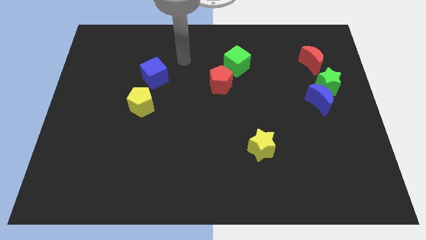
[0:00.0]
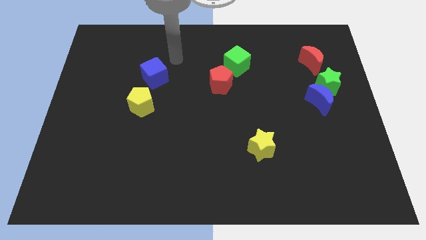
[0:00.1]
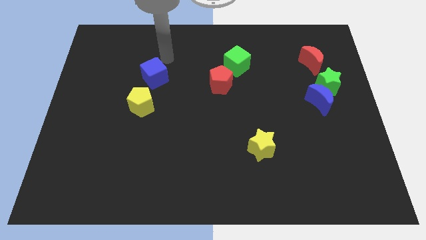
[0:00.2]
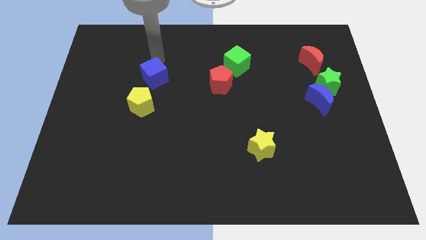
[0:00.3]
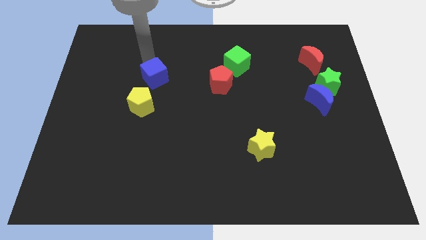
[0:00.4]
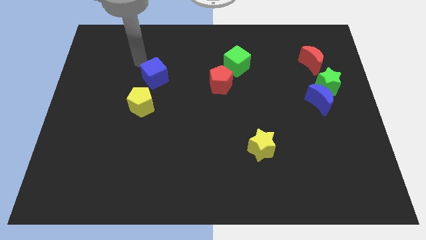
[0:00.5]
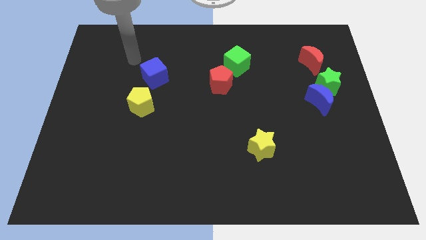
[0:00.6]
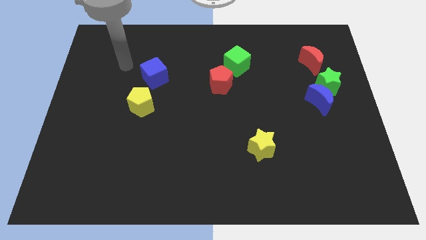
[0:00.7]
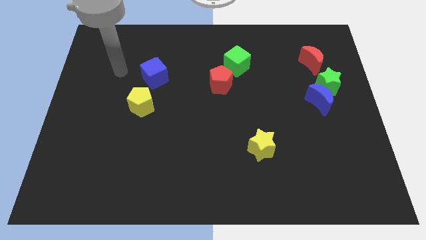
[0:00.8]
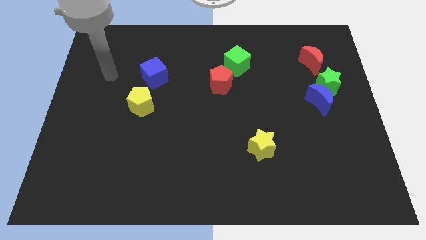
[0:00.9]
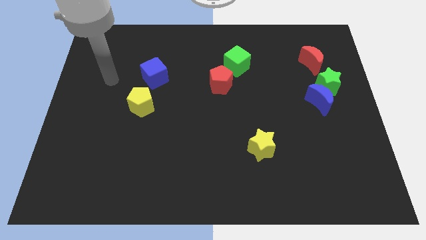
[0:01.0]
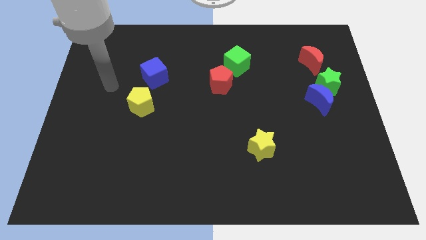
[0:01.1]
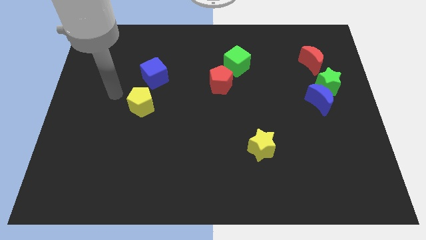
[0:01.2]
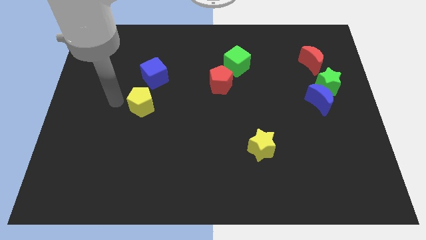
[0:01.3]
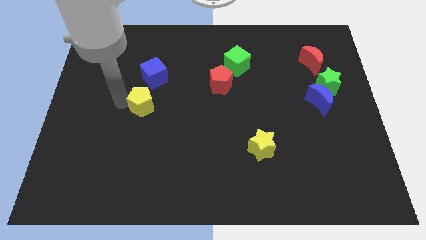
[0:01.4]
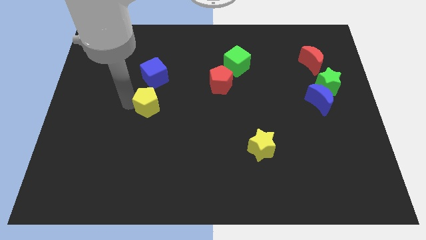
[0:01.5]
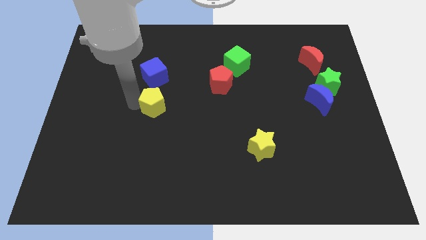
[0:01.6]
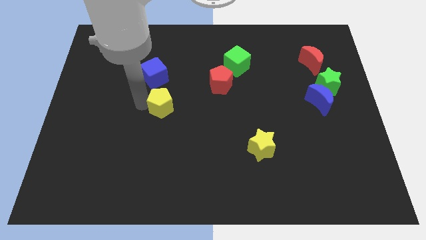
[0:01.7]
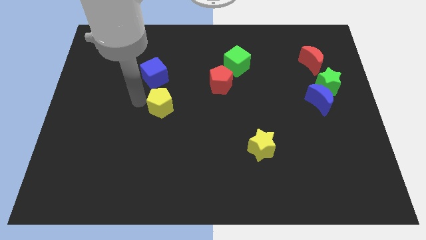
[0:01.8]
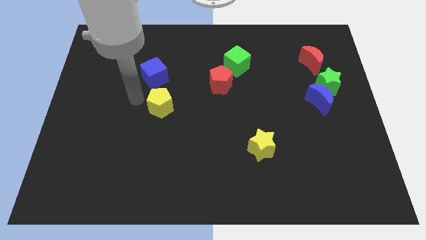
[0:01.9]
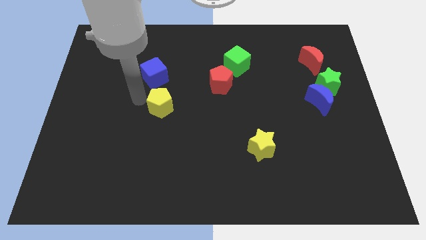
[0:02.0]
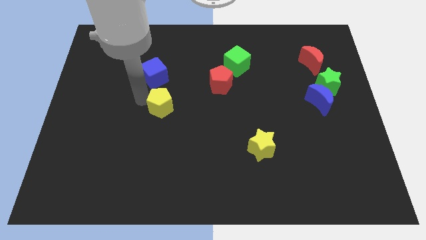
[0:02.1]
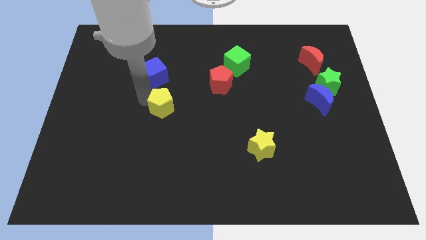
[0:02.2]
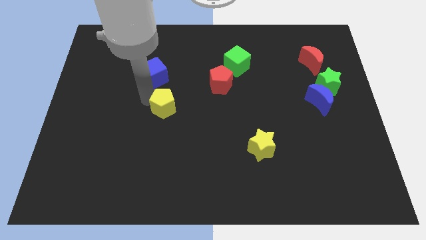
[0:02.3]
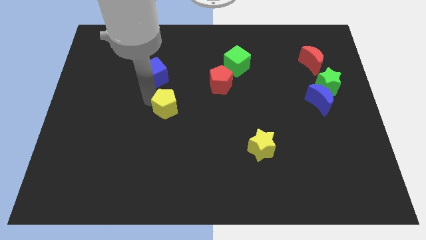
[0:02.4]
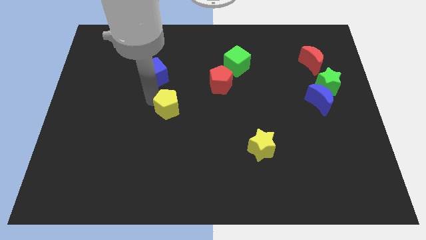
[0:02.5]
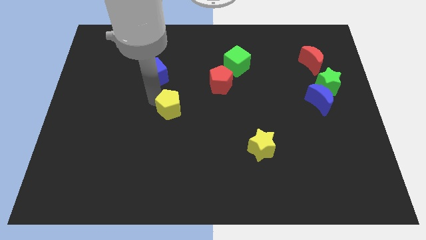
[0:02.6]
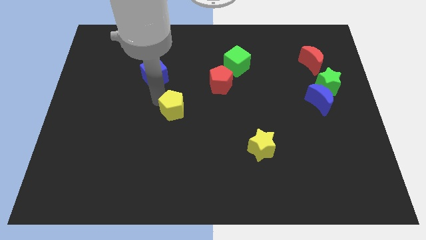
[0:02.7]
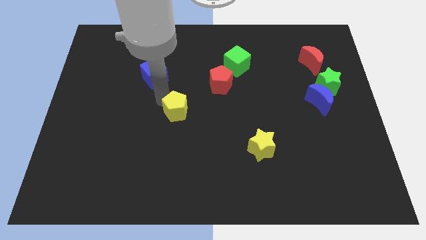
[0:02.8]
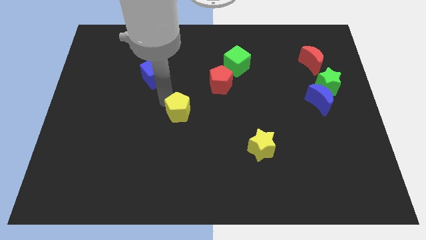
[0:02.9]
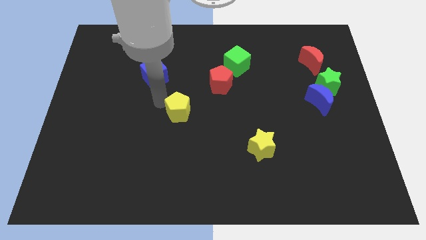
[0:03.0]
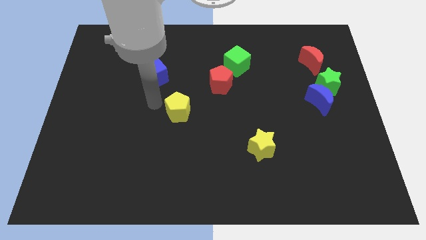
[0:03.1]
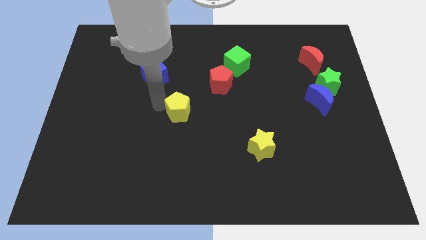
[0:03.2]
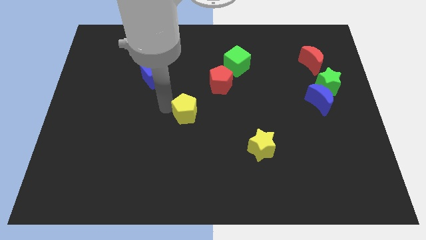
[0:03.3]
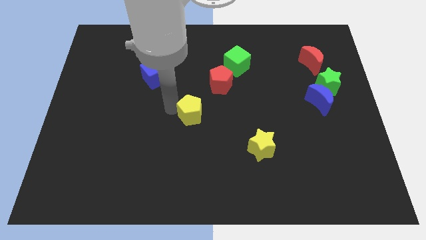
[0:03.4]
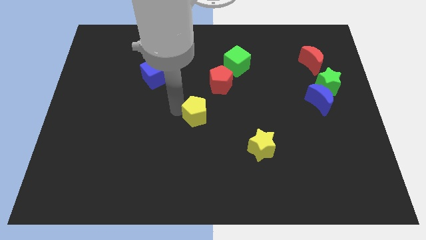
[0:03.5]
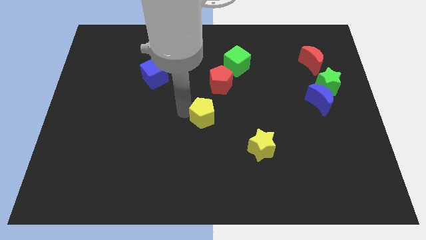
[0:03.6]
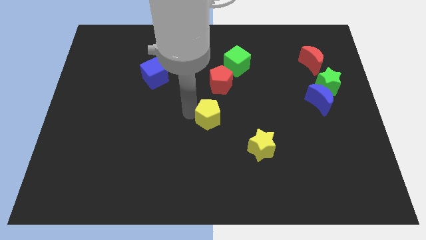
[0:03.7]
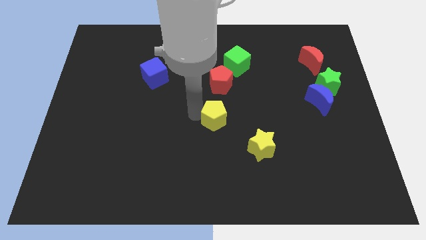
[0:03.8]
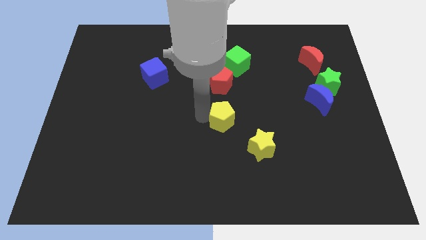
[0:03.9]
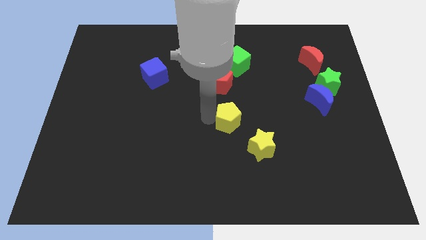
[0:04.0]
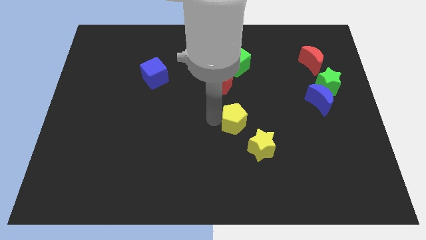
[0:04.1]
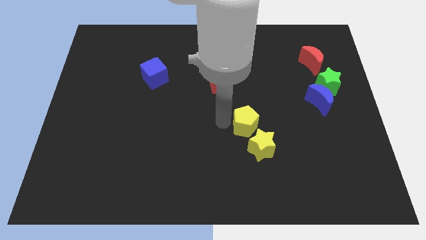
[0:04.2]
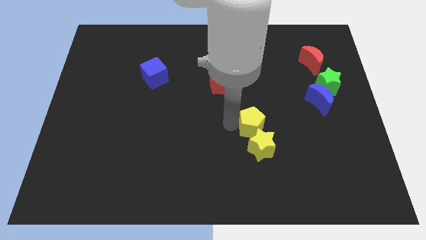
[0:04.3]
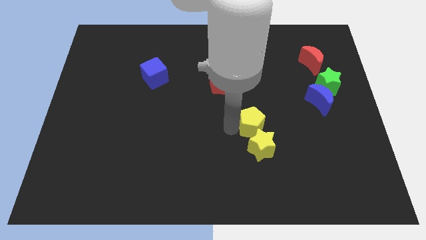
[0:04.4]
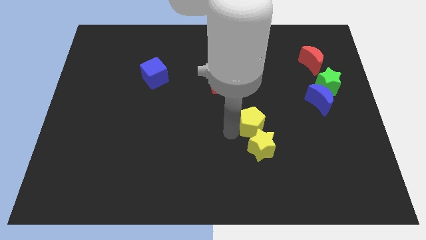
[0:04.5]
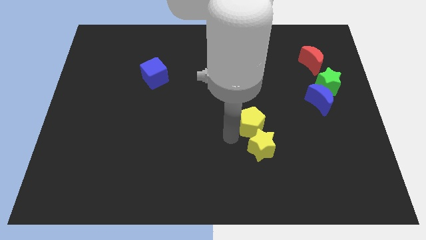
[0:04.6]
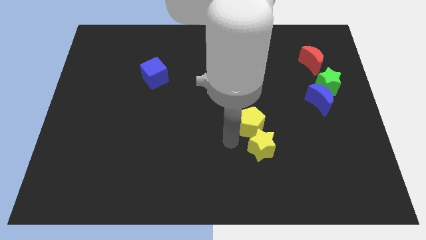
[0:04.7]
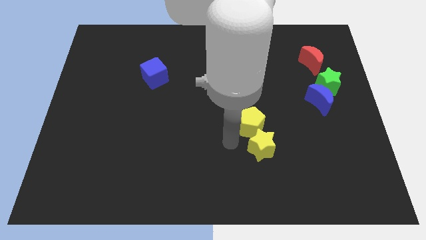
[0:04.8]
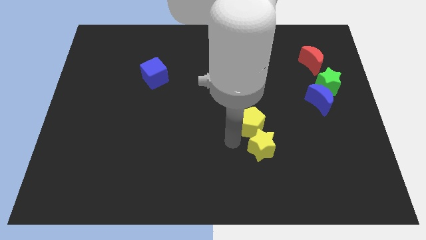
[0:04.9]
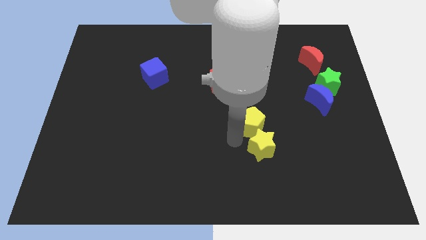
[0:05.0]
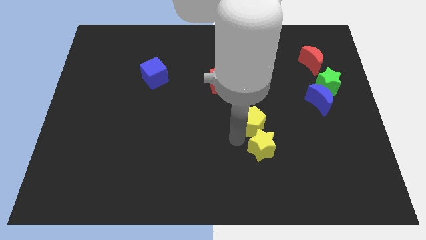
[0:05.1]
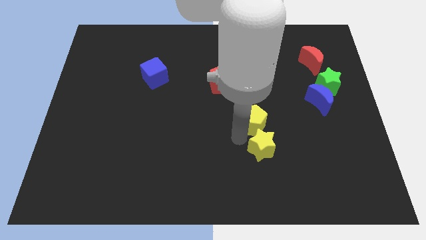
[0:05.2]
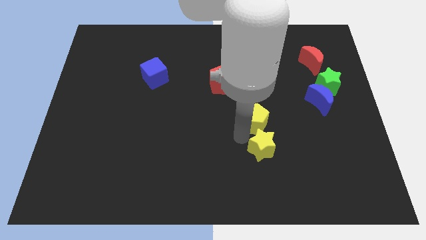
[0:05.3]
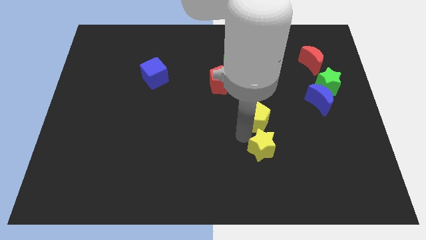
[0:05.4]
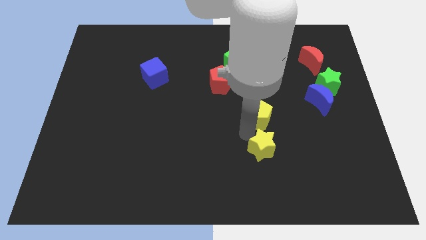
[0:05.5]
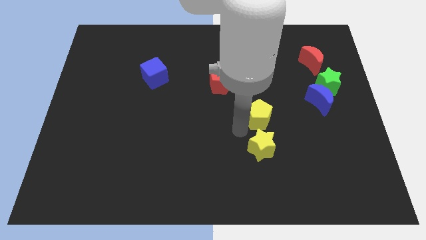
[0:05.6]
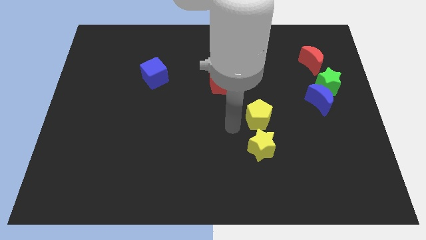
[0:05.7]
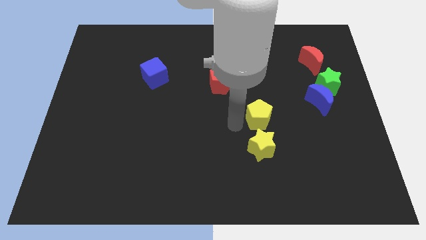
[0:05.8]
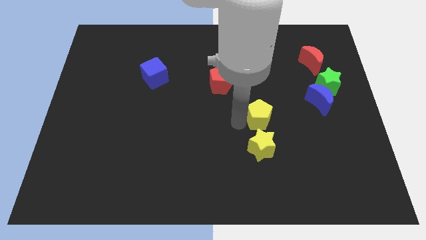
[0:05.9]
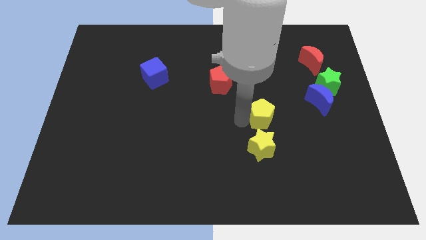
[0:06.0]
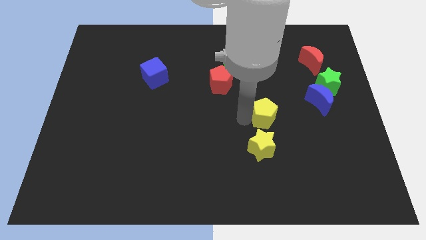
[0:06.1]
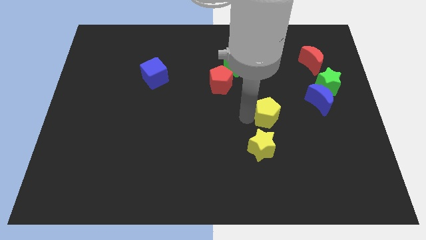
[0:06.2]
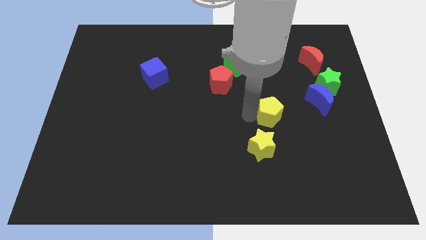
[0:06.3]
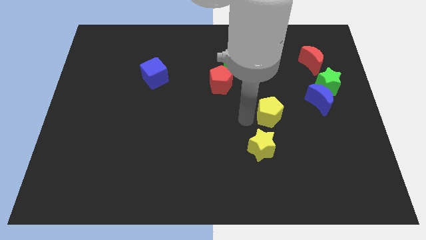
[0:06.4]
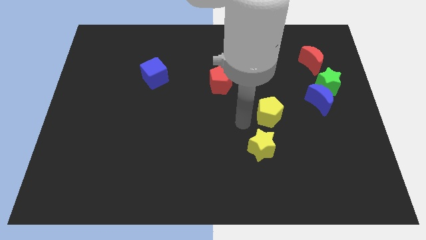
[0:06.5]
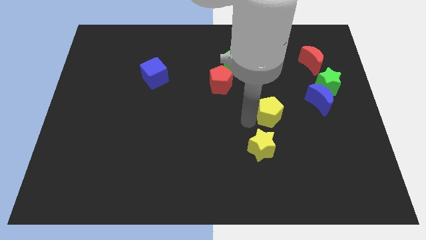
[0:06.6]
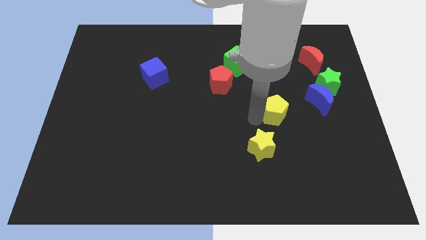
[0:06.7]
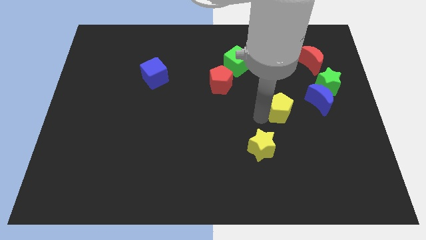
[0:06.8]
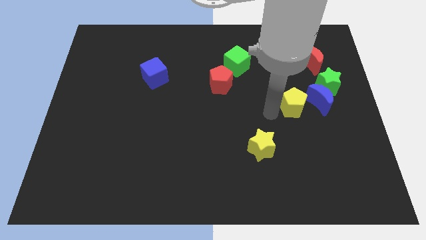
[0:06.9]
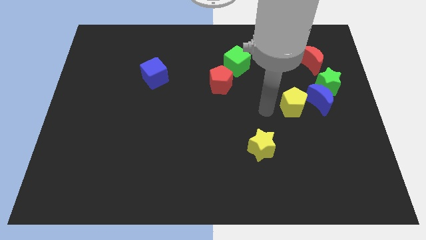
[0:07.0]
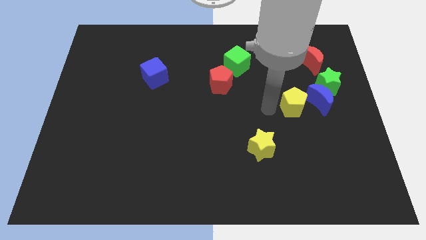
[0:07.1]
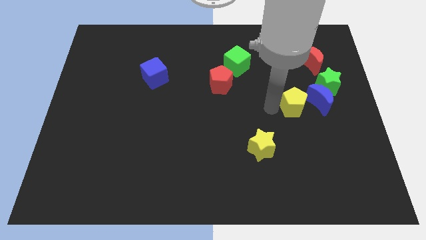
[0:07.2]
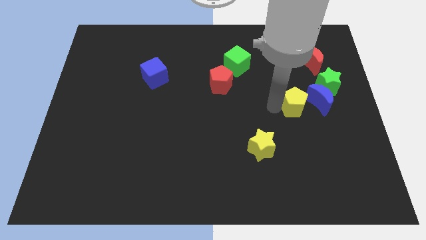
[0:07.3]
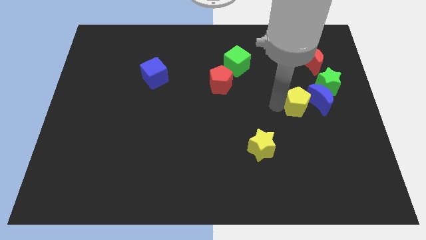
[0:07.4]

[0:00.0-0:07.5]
put the yellow pentagon towards the blue moon
